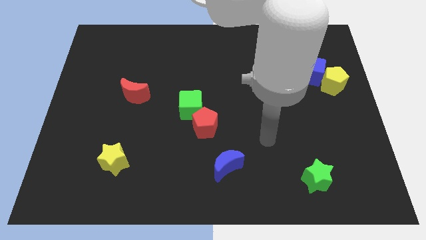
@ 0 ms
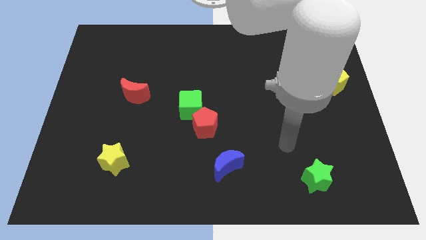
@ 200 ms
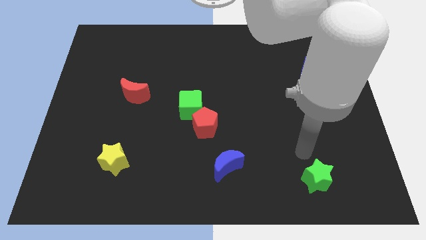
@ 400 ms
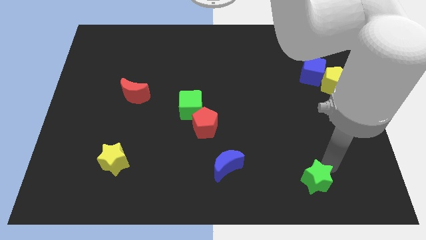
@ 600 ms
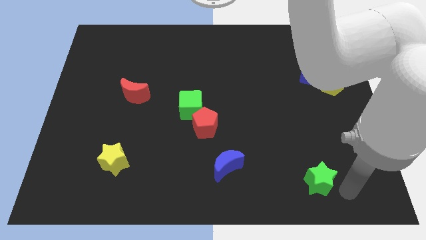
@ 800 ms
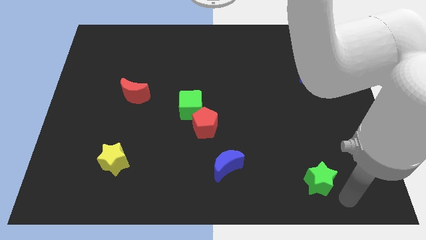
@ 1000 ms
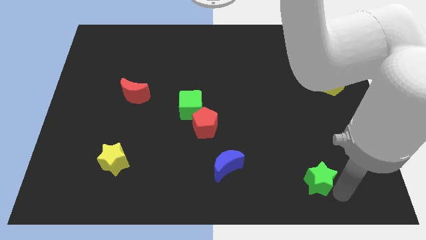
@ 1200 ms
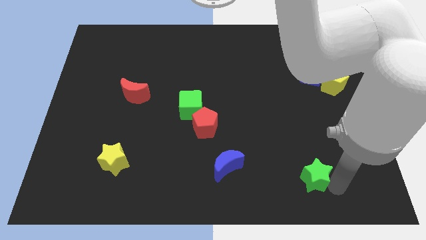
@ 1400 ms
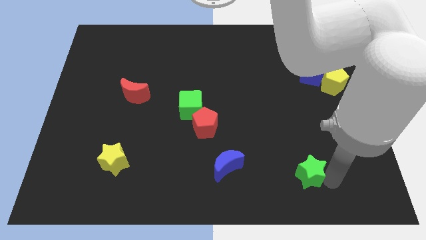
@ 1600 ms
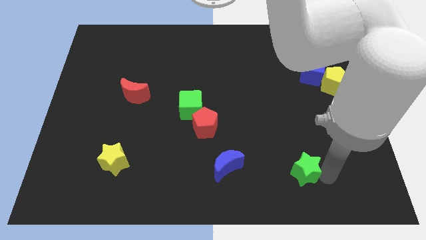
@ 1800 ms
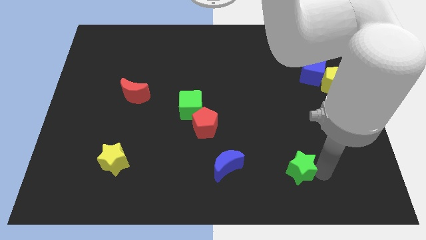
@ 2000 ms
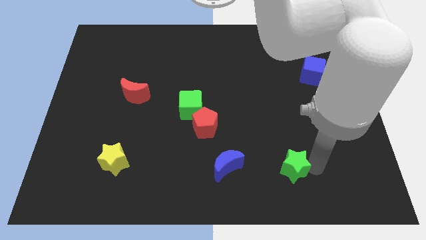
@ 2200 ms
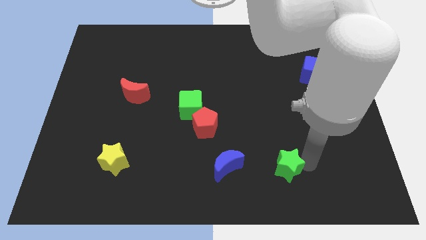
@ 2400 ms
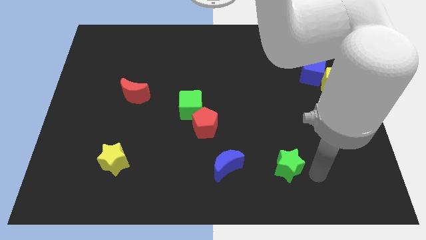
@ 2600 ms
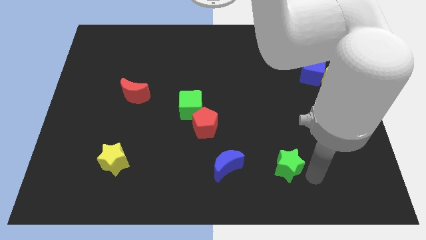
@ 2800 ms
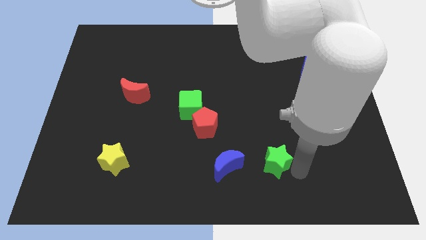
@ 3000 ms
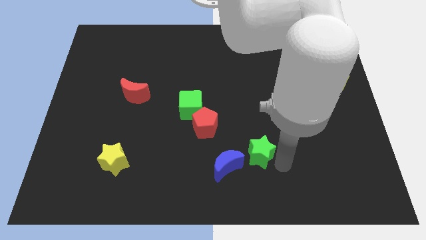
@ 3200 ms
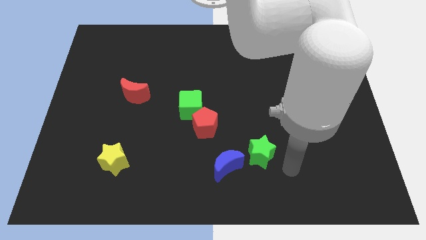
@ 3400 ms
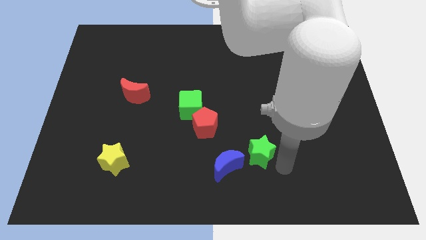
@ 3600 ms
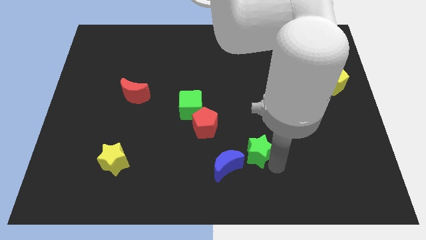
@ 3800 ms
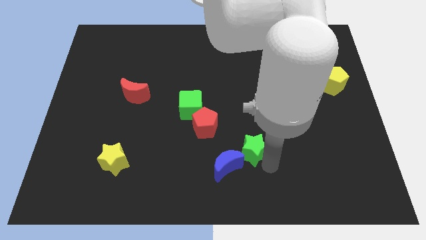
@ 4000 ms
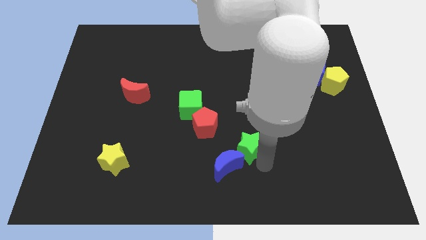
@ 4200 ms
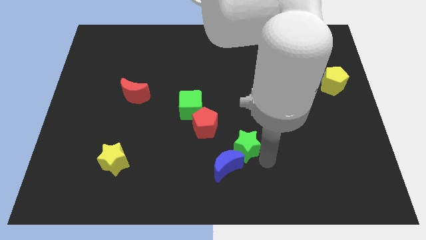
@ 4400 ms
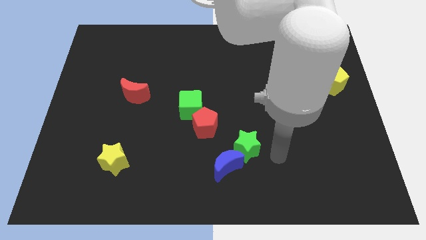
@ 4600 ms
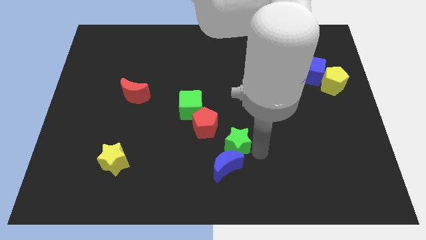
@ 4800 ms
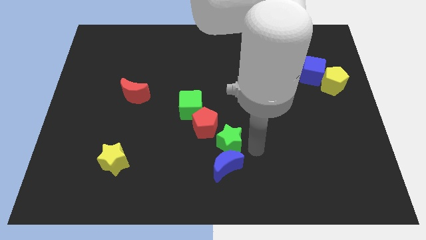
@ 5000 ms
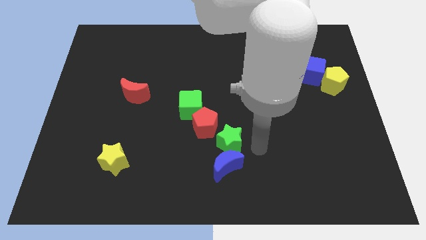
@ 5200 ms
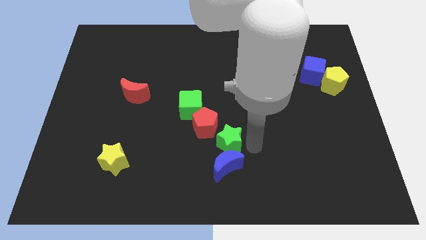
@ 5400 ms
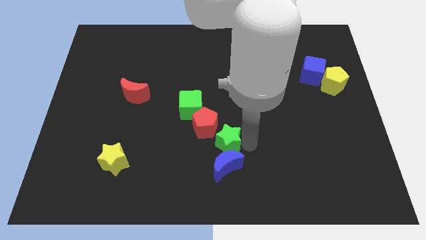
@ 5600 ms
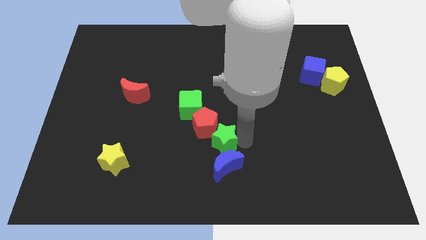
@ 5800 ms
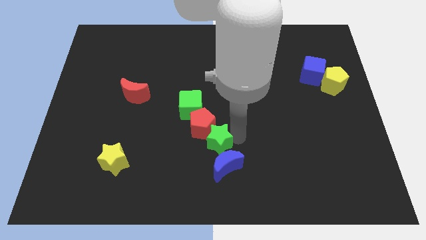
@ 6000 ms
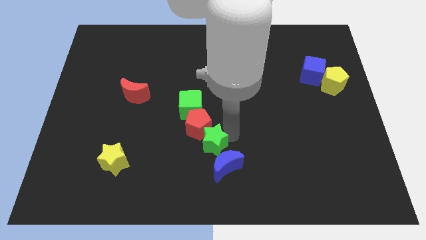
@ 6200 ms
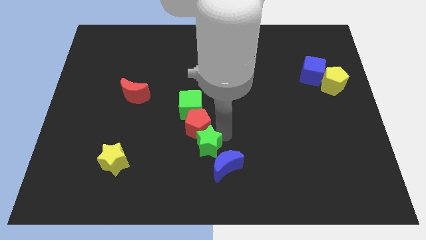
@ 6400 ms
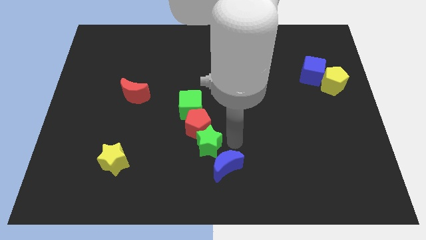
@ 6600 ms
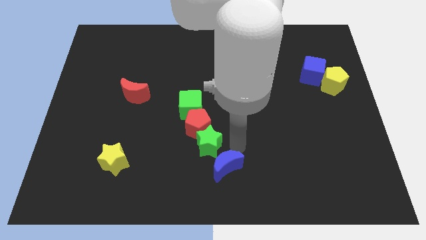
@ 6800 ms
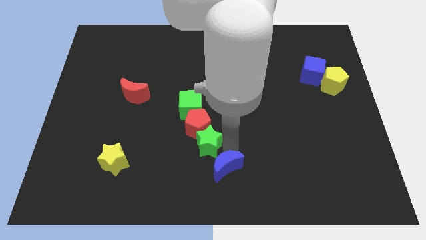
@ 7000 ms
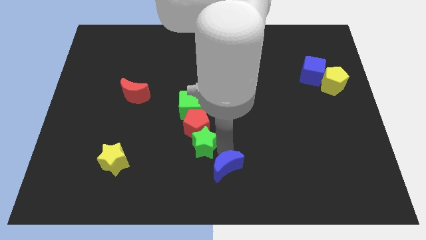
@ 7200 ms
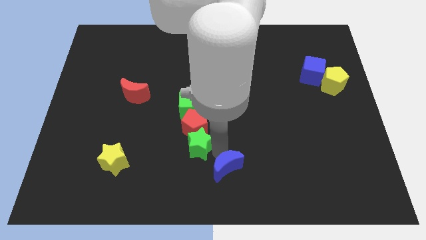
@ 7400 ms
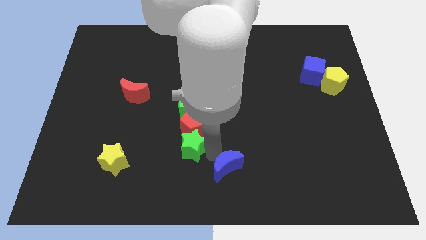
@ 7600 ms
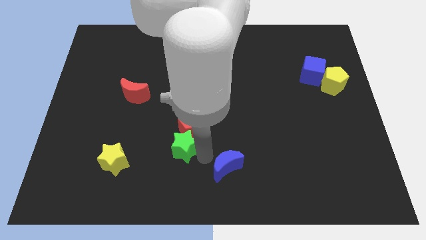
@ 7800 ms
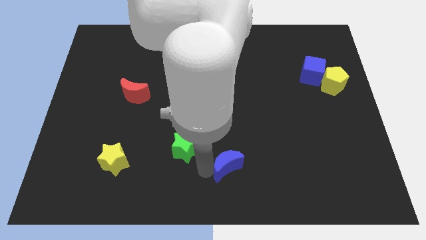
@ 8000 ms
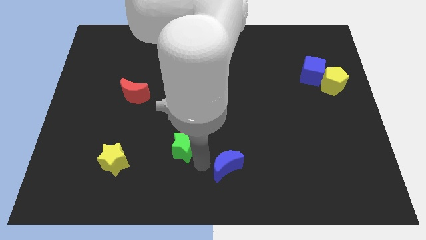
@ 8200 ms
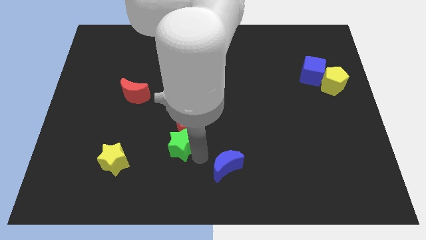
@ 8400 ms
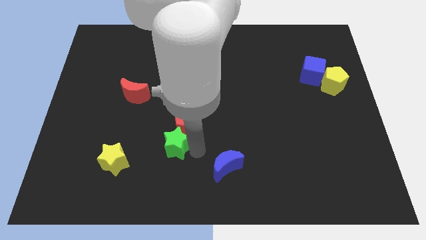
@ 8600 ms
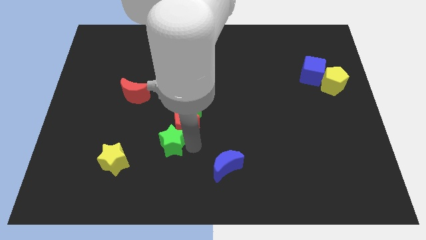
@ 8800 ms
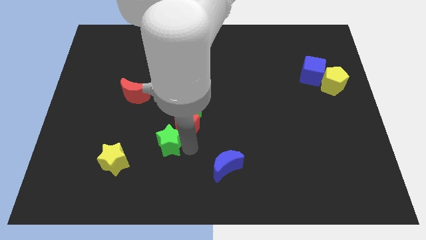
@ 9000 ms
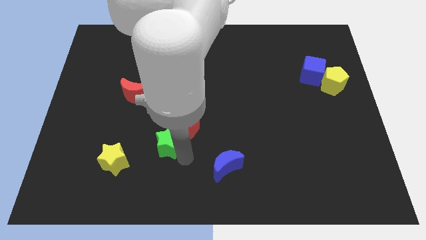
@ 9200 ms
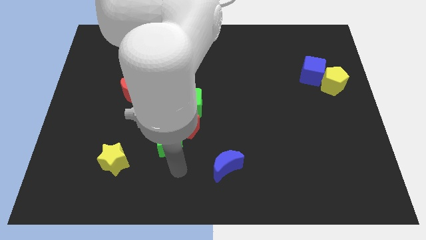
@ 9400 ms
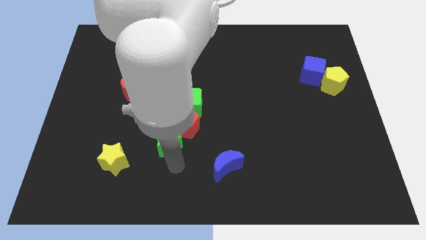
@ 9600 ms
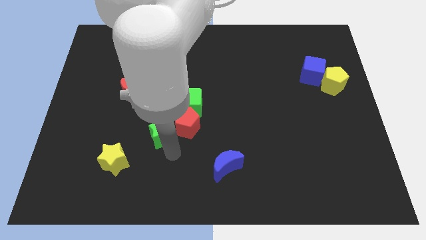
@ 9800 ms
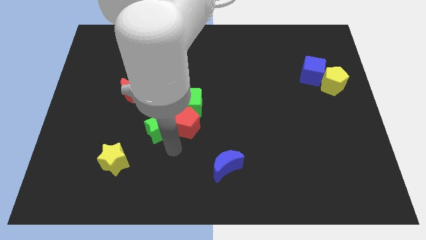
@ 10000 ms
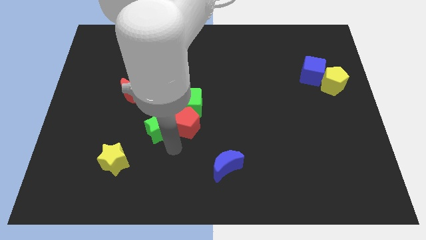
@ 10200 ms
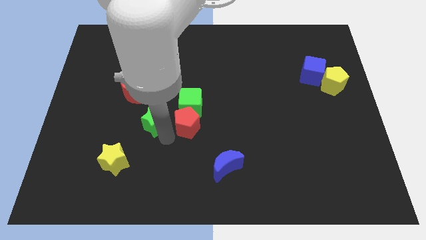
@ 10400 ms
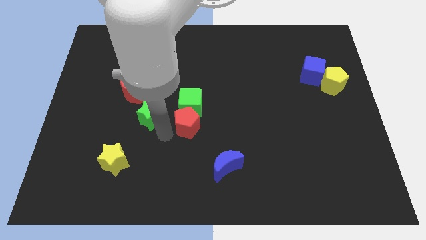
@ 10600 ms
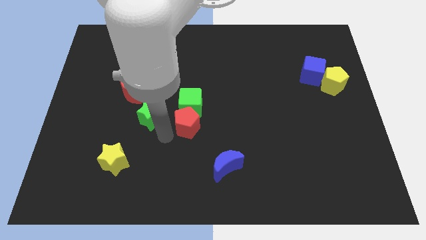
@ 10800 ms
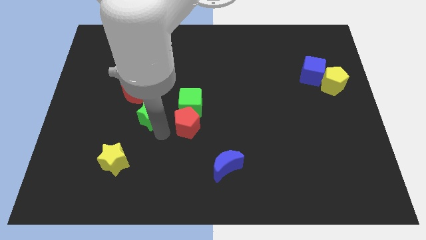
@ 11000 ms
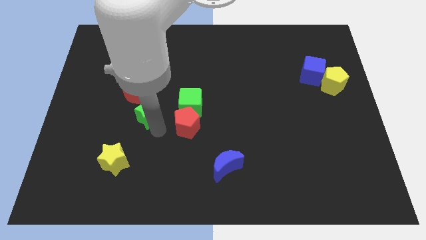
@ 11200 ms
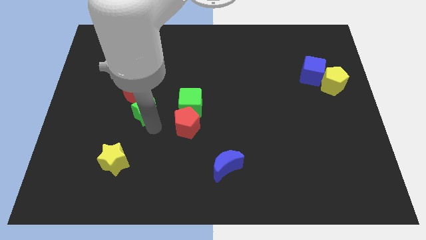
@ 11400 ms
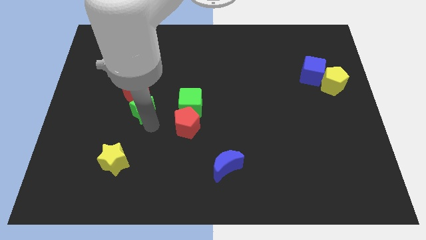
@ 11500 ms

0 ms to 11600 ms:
slide the green star close to the red moon

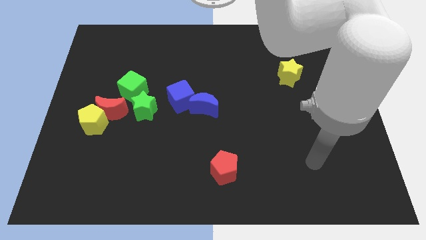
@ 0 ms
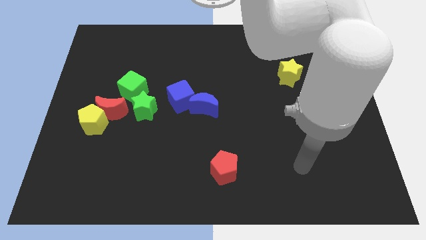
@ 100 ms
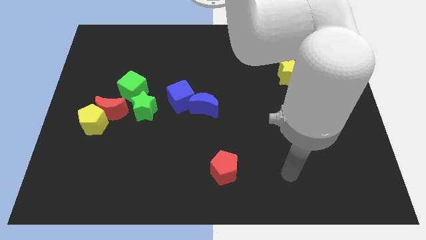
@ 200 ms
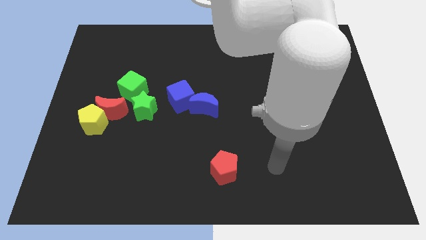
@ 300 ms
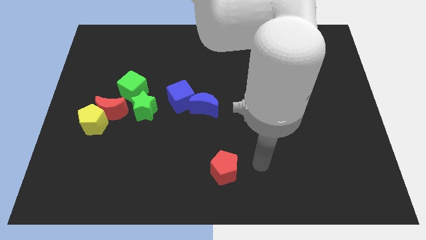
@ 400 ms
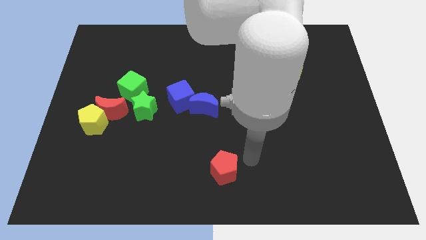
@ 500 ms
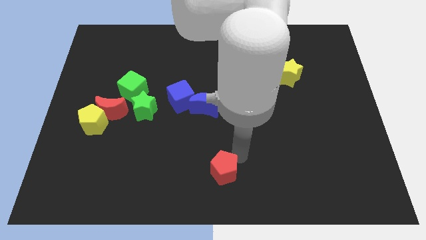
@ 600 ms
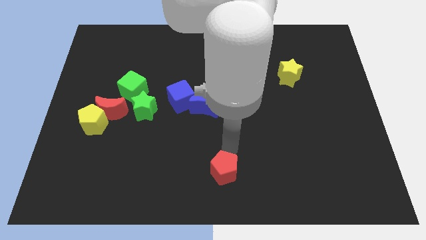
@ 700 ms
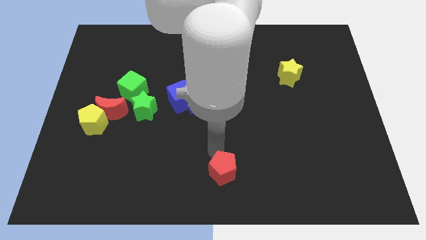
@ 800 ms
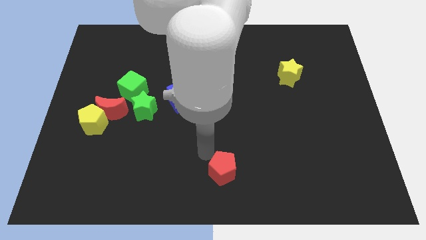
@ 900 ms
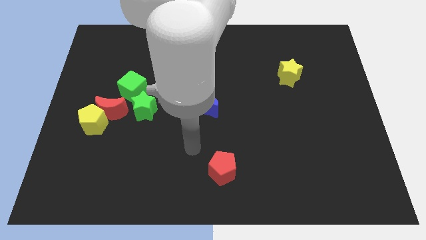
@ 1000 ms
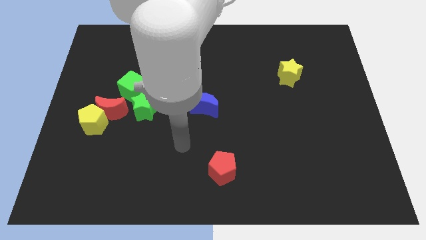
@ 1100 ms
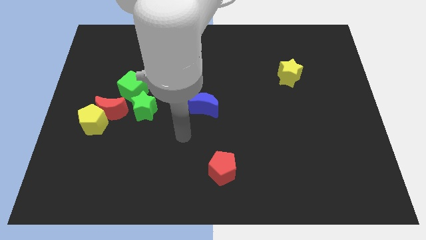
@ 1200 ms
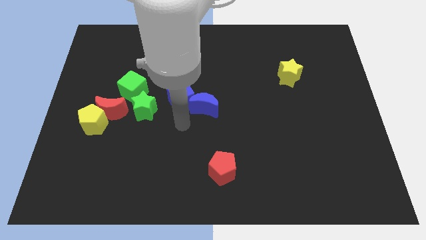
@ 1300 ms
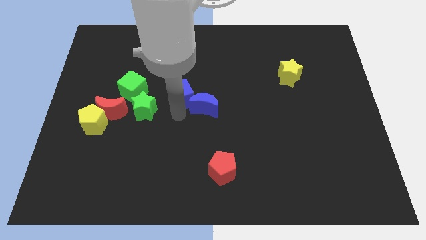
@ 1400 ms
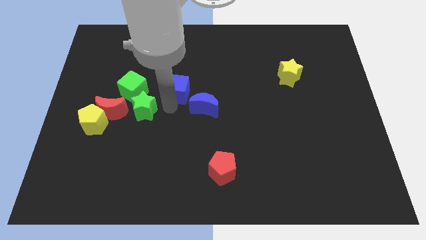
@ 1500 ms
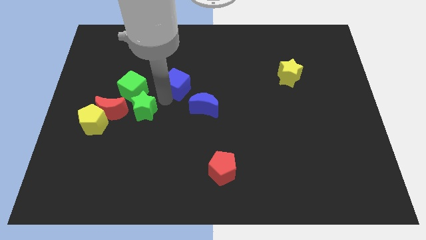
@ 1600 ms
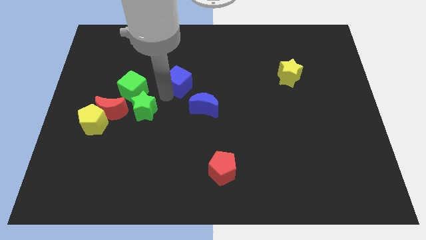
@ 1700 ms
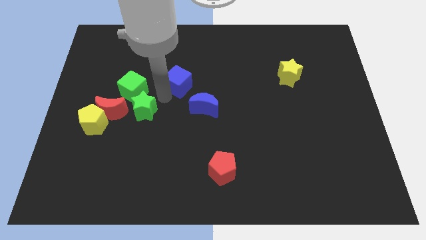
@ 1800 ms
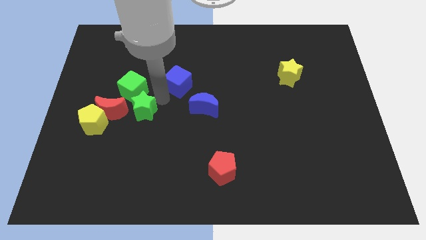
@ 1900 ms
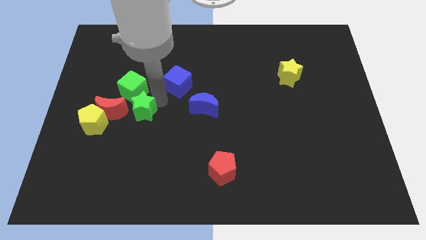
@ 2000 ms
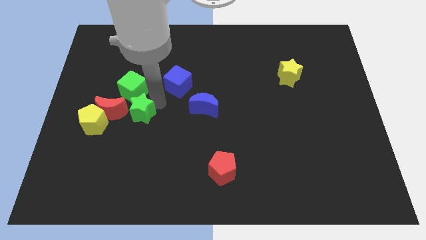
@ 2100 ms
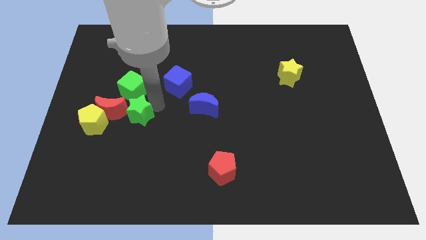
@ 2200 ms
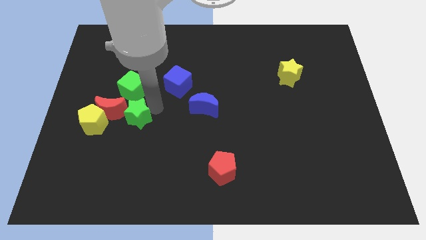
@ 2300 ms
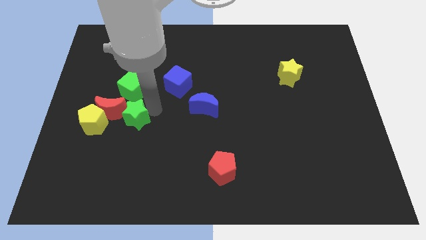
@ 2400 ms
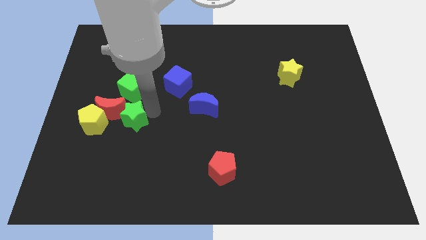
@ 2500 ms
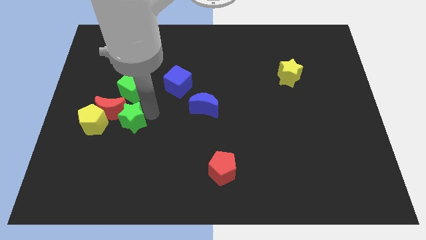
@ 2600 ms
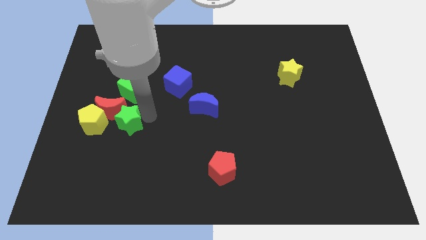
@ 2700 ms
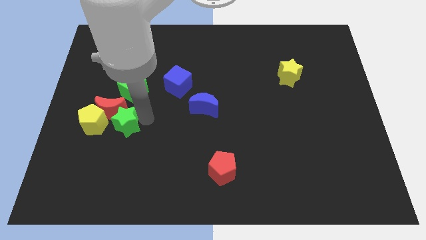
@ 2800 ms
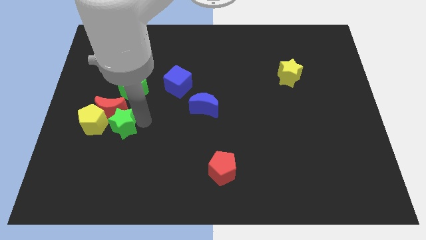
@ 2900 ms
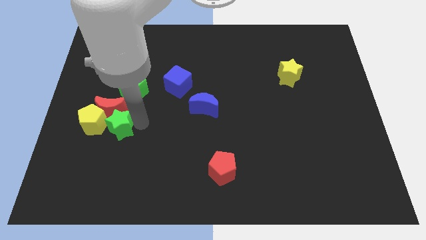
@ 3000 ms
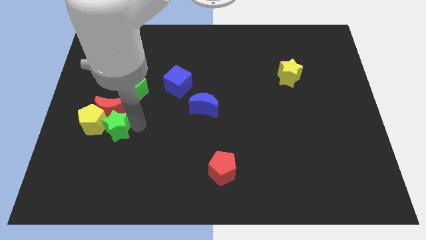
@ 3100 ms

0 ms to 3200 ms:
slide the green star towards the yellow pentagon
